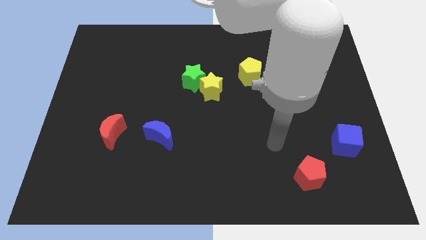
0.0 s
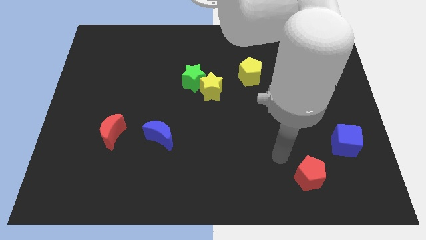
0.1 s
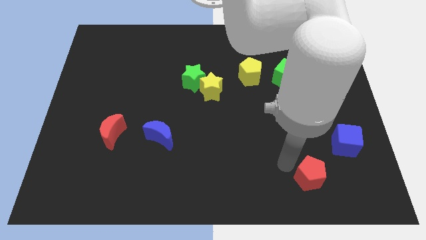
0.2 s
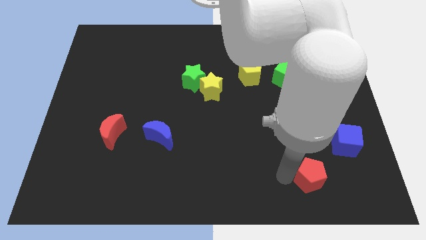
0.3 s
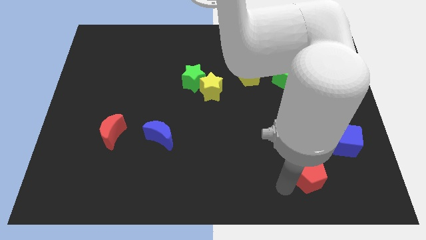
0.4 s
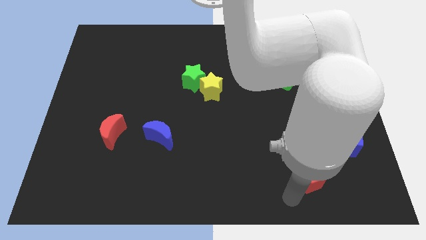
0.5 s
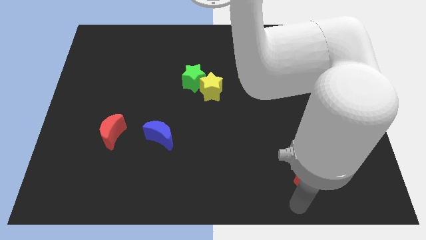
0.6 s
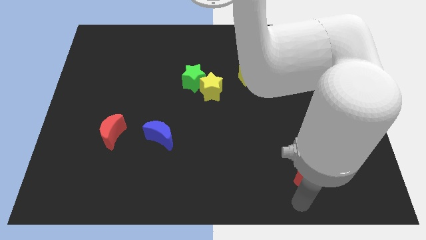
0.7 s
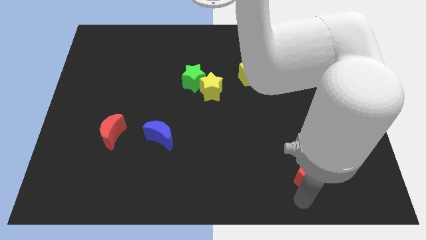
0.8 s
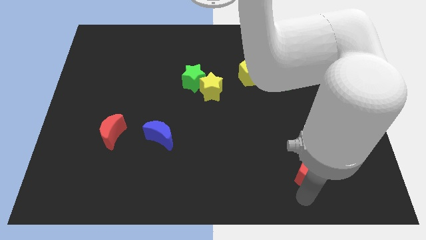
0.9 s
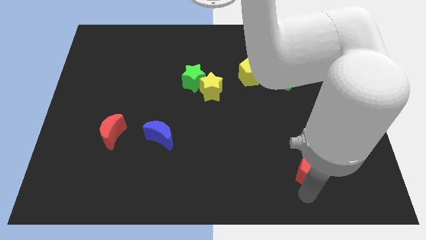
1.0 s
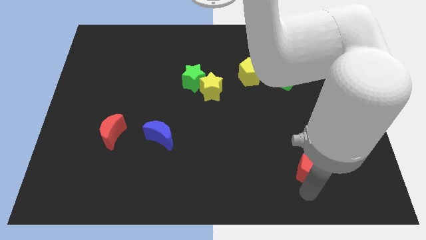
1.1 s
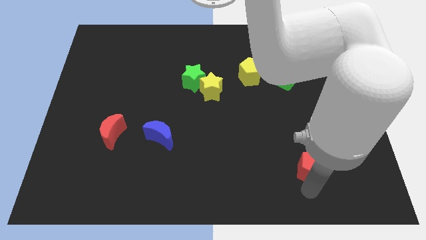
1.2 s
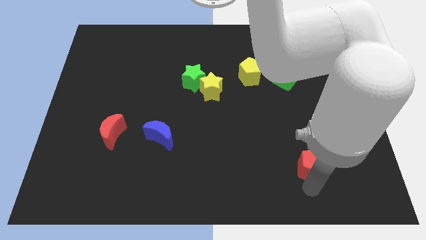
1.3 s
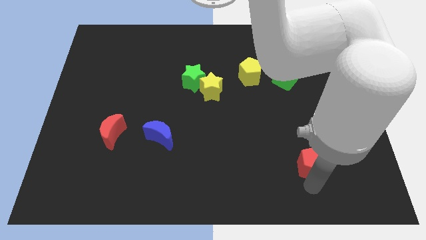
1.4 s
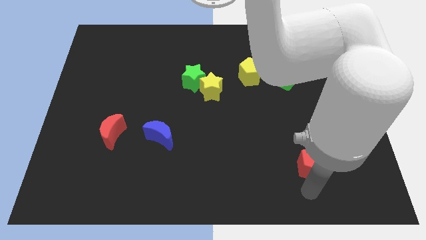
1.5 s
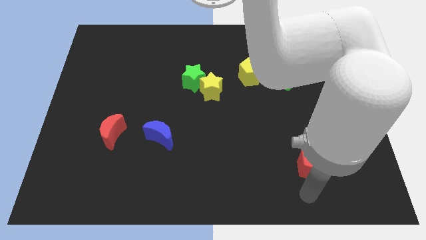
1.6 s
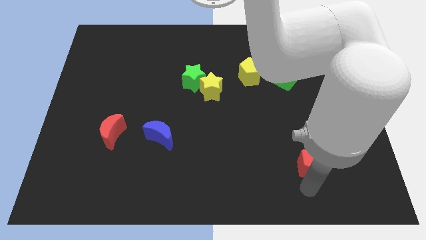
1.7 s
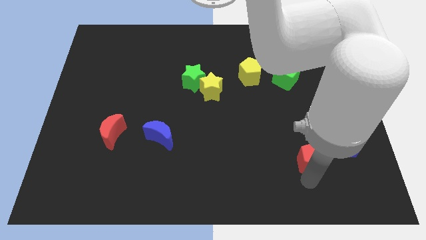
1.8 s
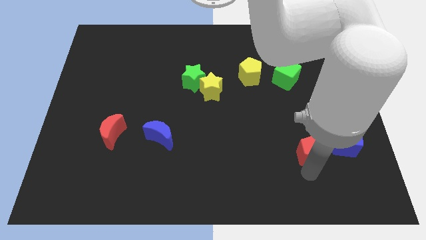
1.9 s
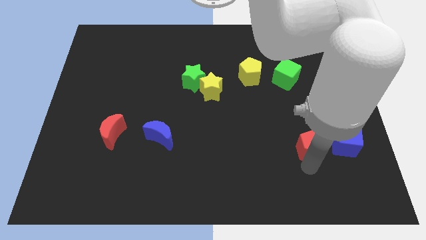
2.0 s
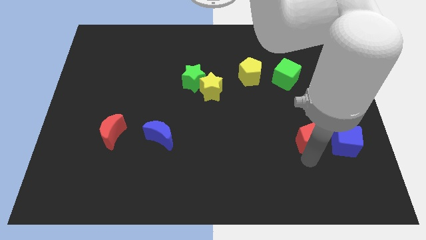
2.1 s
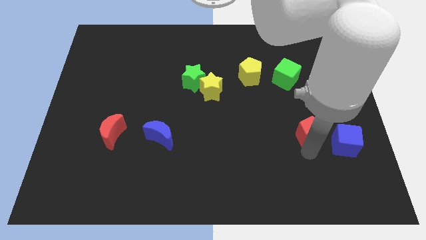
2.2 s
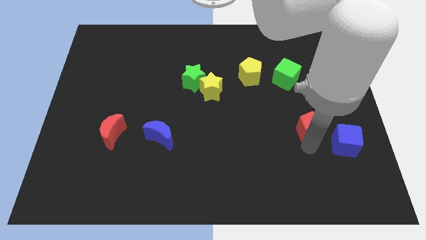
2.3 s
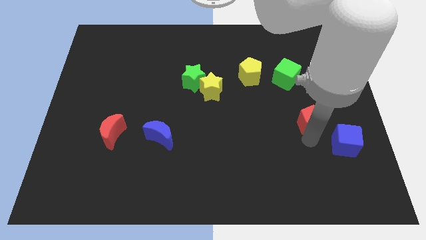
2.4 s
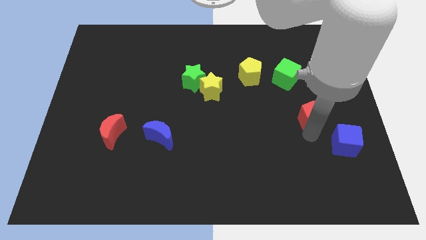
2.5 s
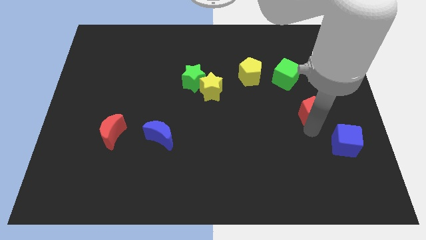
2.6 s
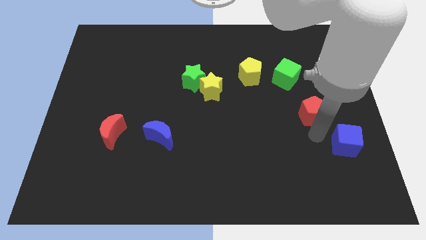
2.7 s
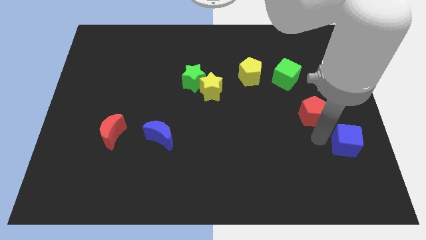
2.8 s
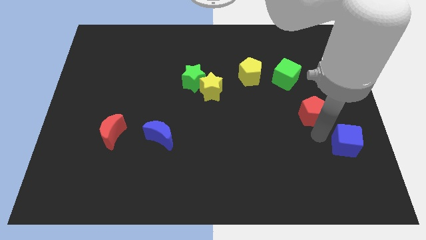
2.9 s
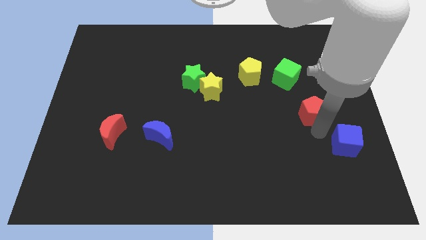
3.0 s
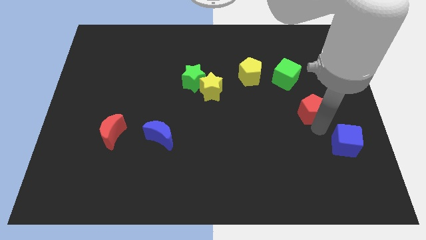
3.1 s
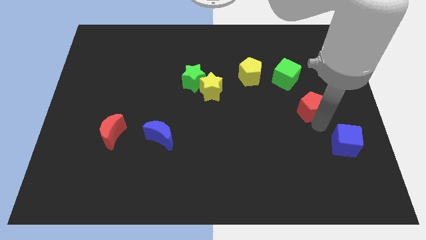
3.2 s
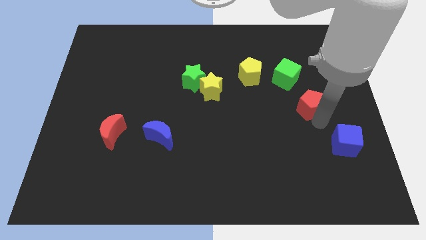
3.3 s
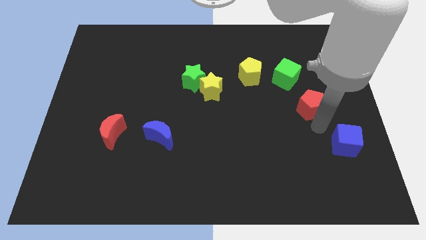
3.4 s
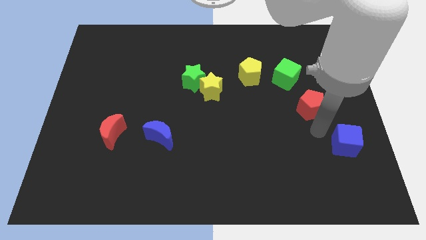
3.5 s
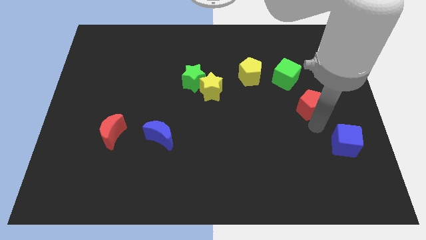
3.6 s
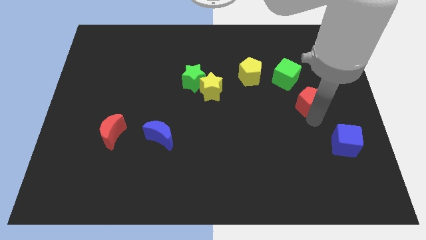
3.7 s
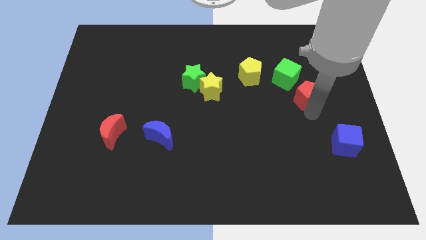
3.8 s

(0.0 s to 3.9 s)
slide the red pentagon upwards

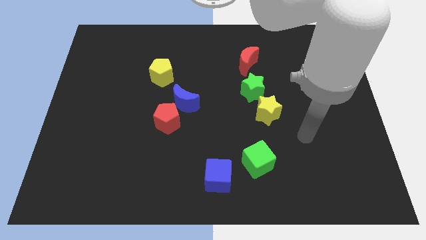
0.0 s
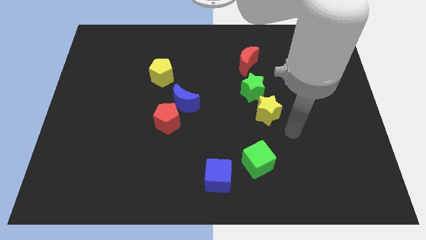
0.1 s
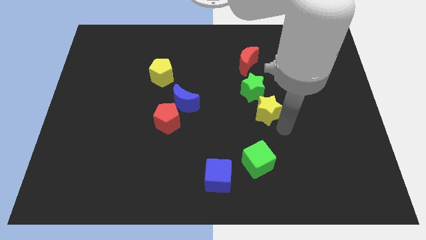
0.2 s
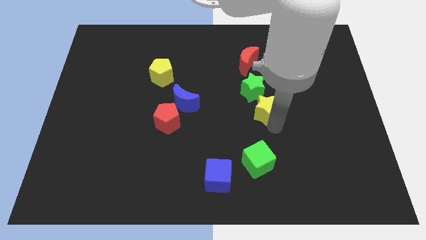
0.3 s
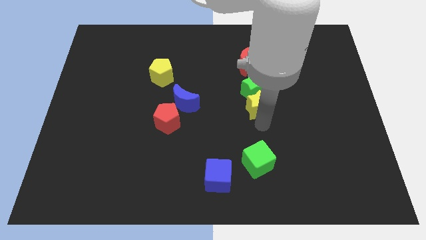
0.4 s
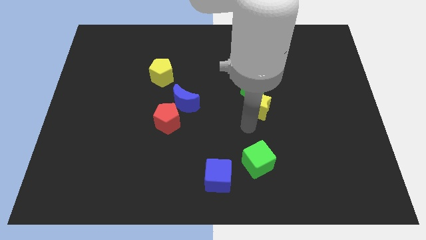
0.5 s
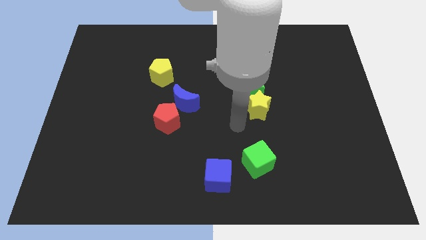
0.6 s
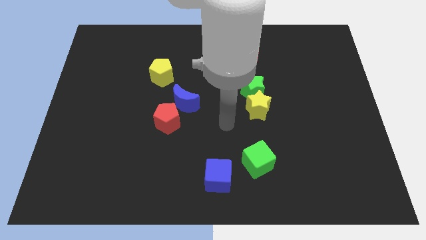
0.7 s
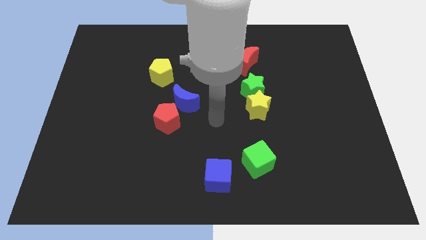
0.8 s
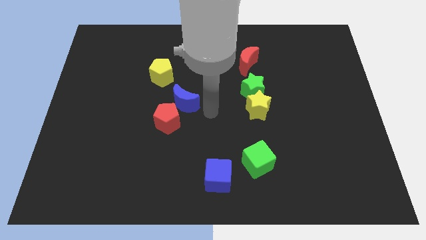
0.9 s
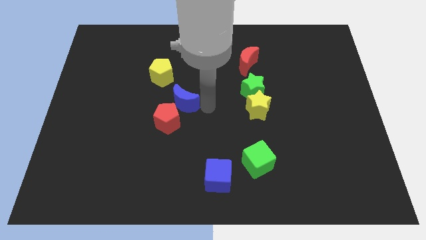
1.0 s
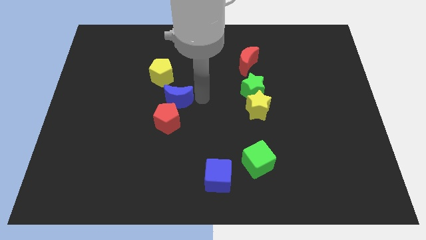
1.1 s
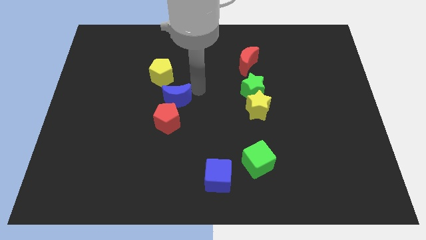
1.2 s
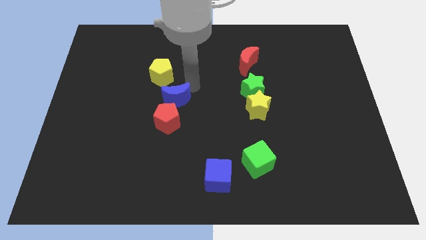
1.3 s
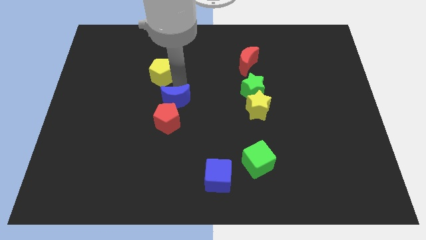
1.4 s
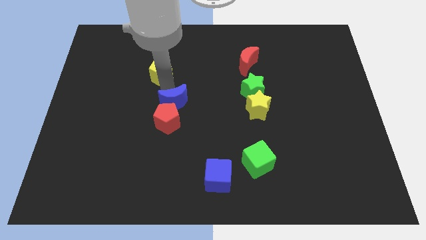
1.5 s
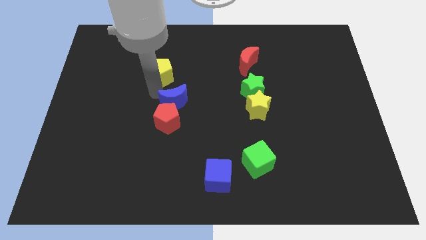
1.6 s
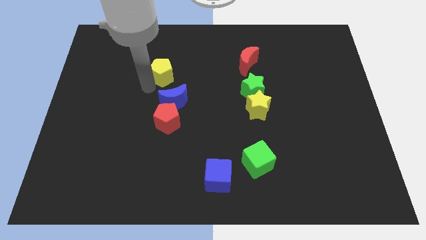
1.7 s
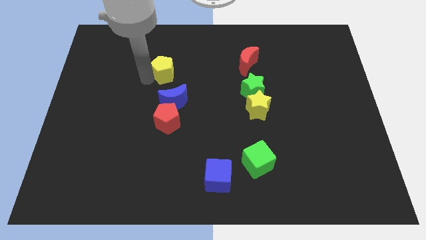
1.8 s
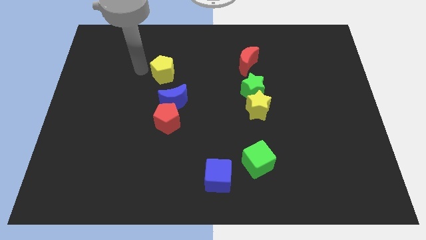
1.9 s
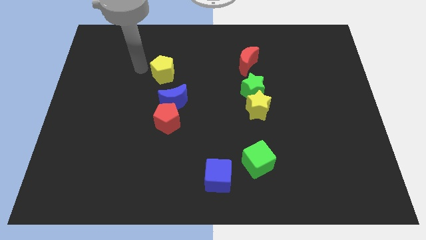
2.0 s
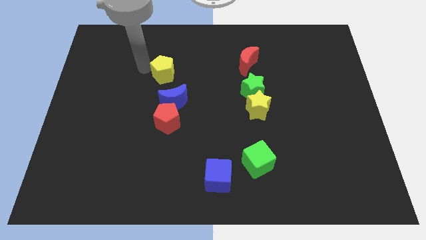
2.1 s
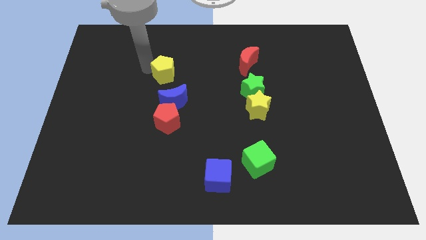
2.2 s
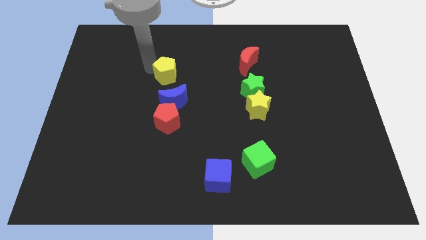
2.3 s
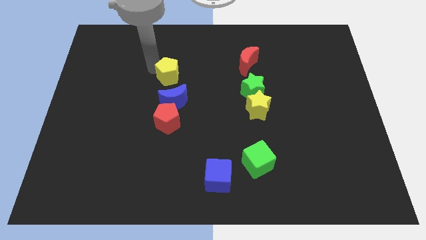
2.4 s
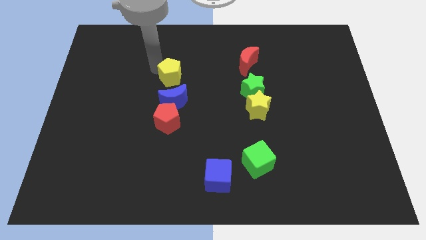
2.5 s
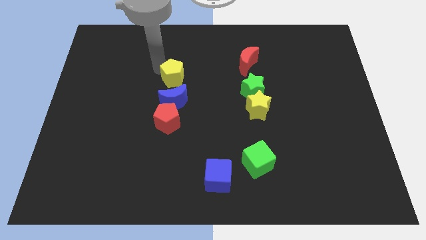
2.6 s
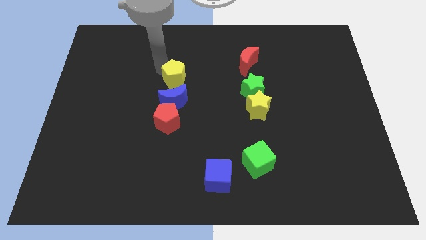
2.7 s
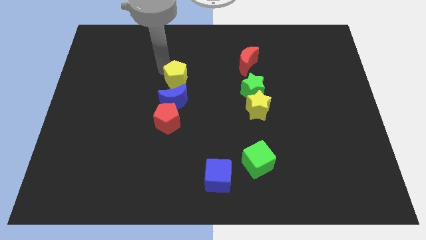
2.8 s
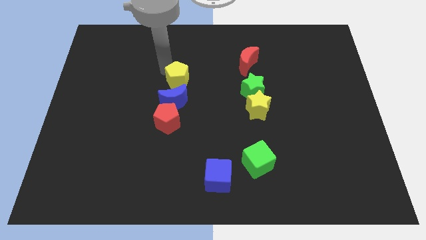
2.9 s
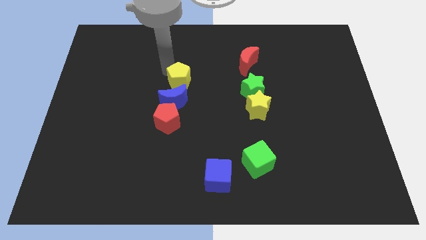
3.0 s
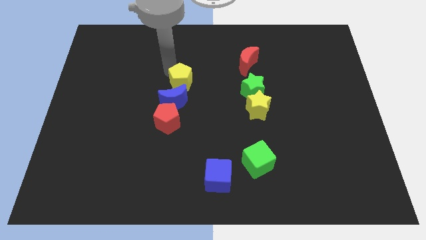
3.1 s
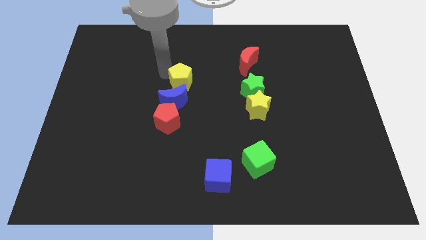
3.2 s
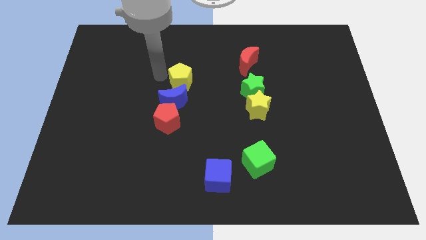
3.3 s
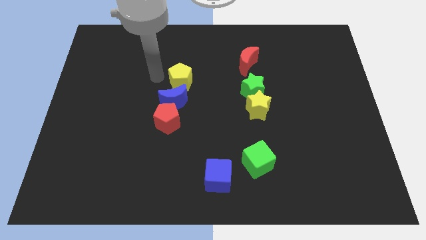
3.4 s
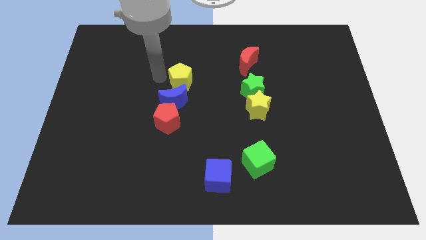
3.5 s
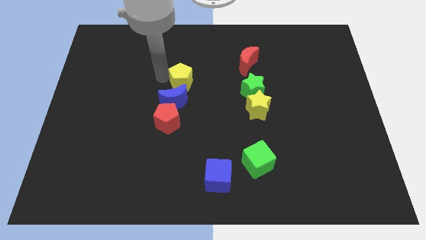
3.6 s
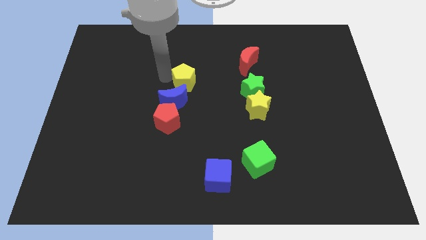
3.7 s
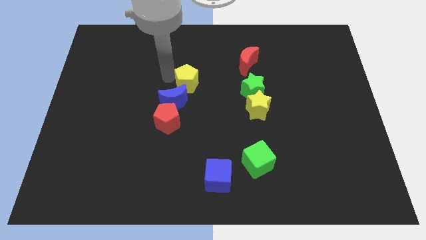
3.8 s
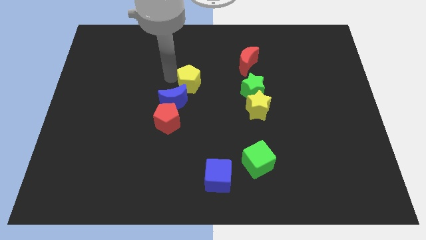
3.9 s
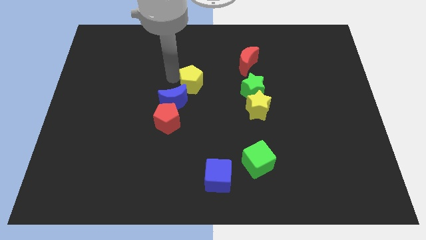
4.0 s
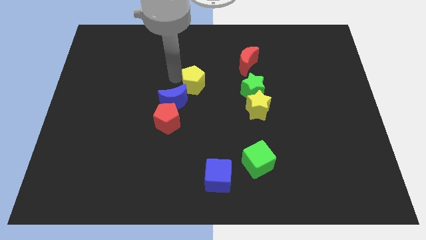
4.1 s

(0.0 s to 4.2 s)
push the yellow pentagon a little bit diagonally downwards and right
